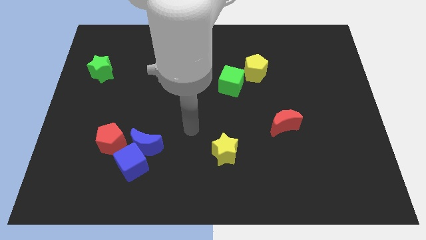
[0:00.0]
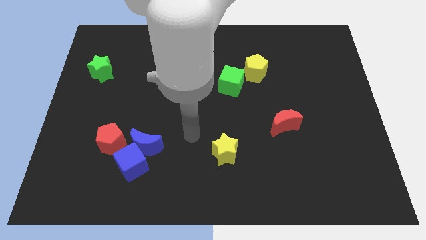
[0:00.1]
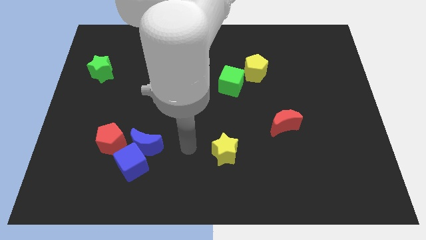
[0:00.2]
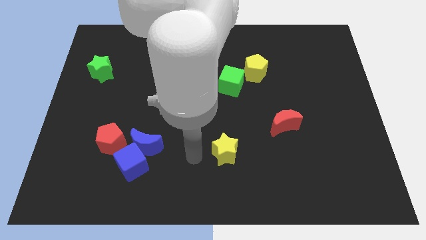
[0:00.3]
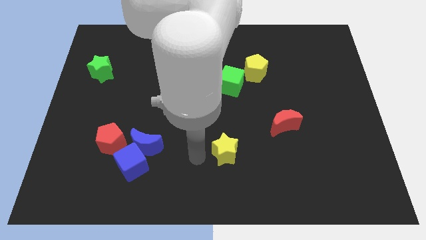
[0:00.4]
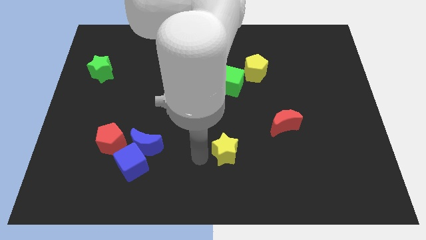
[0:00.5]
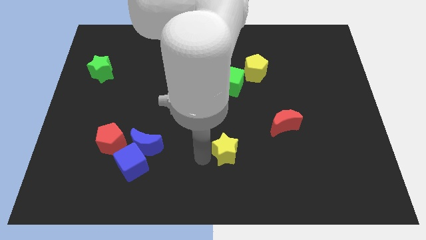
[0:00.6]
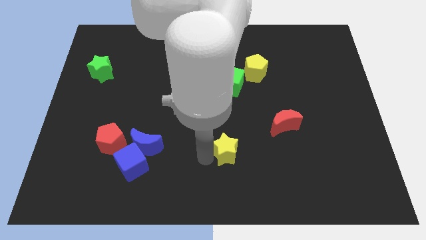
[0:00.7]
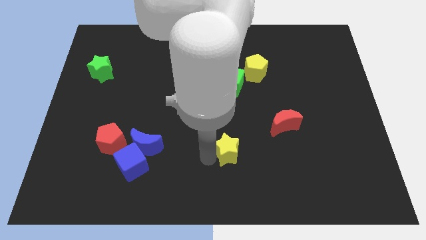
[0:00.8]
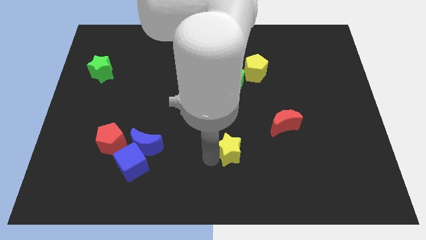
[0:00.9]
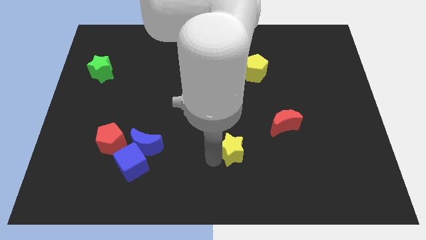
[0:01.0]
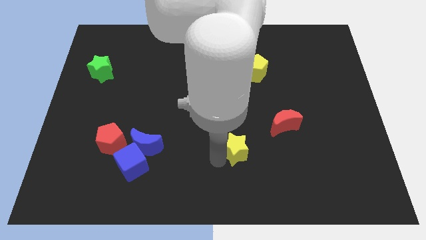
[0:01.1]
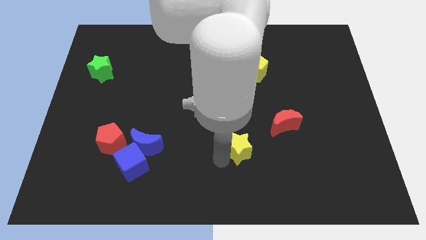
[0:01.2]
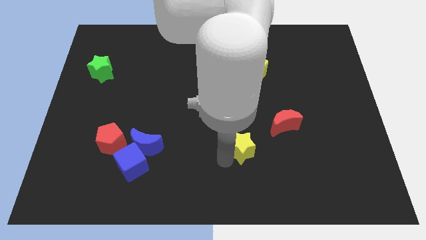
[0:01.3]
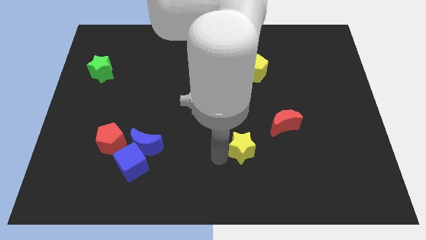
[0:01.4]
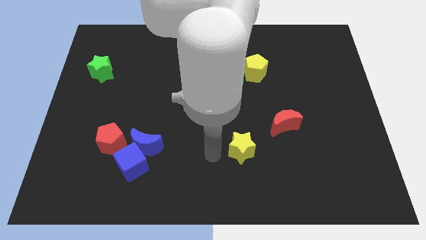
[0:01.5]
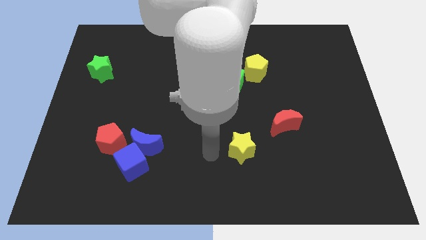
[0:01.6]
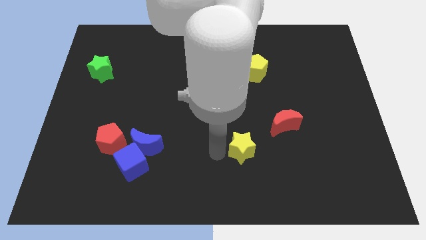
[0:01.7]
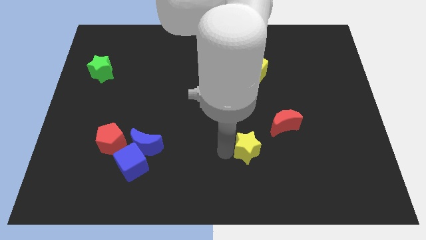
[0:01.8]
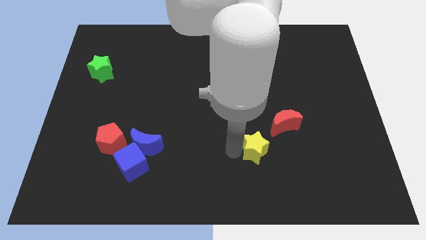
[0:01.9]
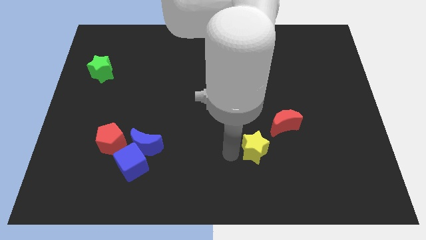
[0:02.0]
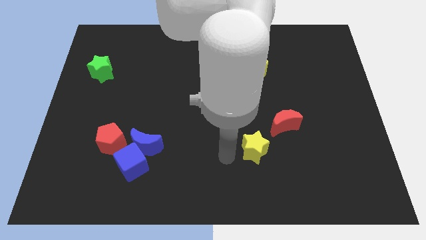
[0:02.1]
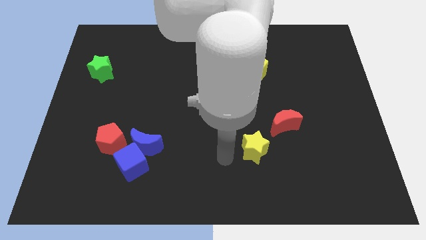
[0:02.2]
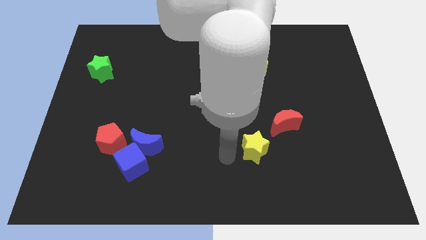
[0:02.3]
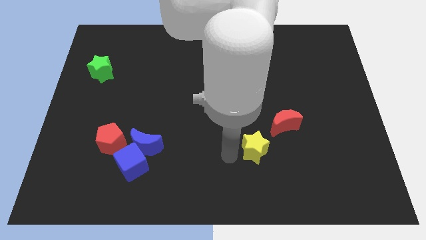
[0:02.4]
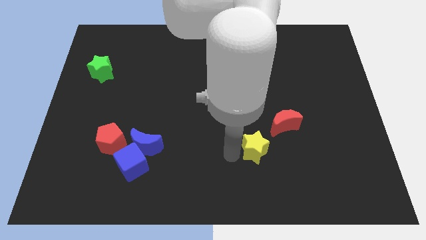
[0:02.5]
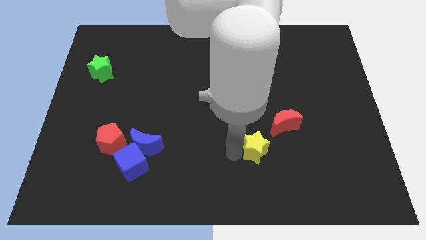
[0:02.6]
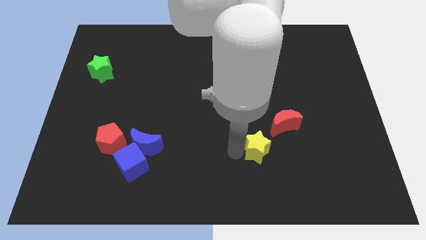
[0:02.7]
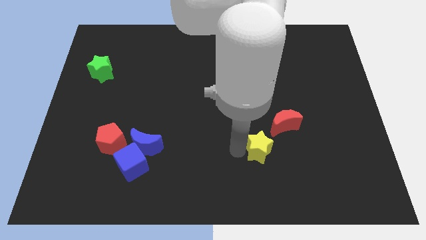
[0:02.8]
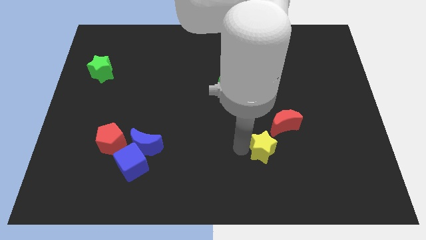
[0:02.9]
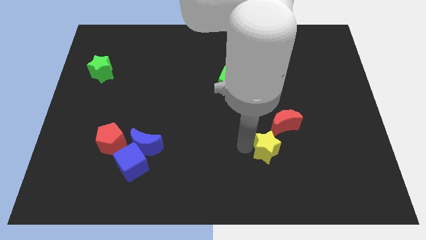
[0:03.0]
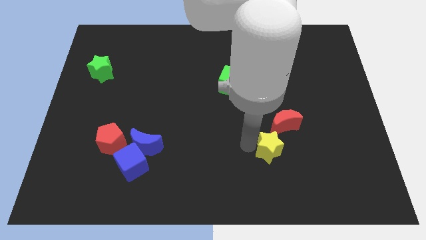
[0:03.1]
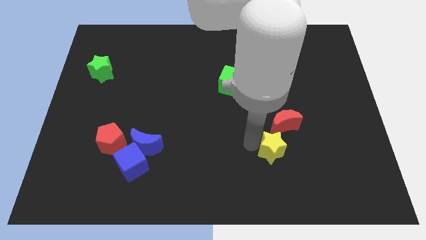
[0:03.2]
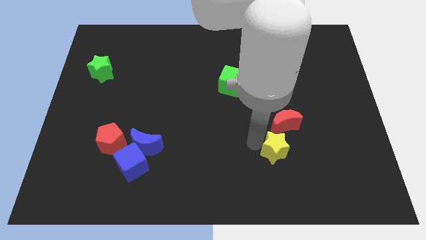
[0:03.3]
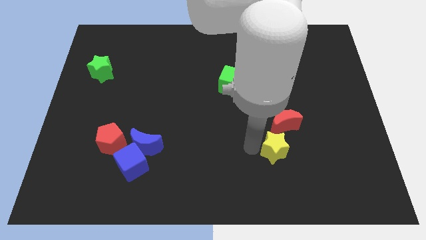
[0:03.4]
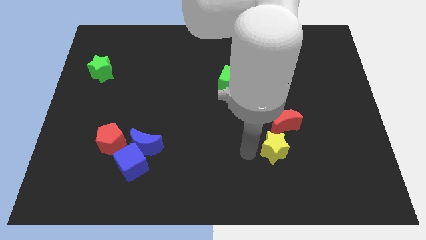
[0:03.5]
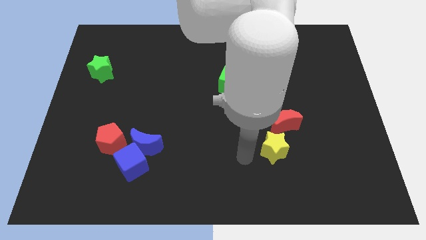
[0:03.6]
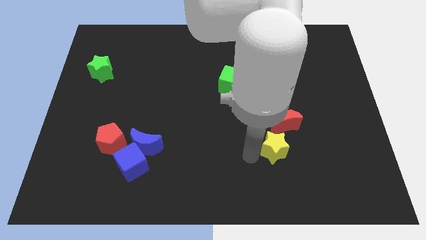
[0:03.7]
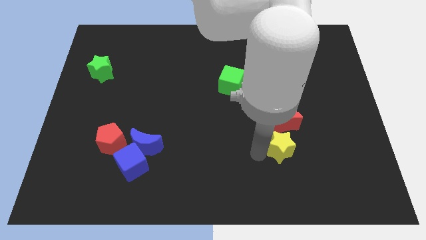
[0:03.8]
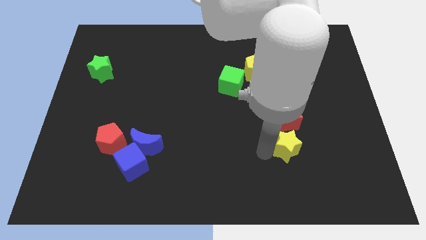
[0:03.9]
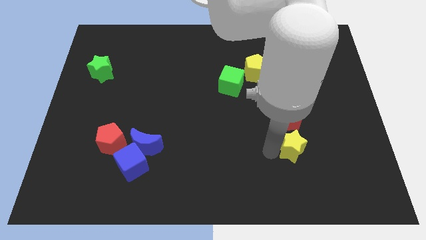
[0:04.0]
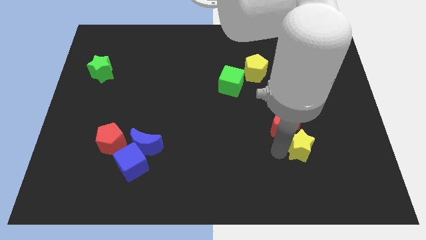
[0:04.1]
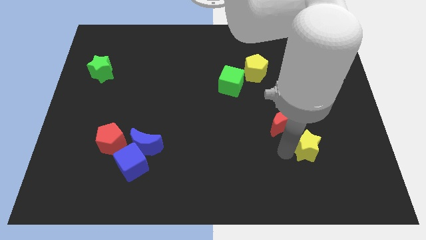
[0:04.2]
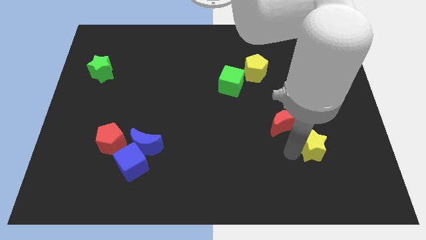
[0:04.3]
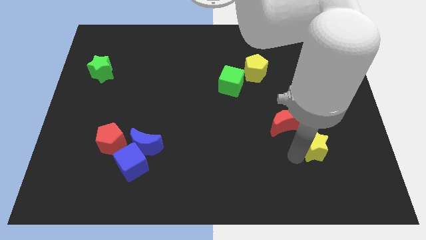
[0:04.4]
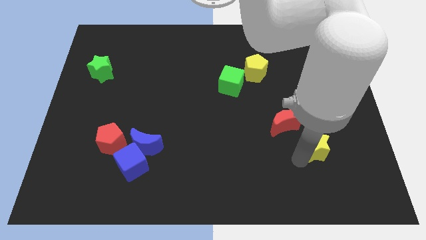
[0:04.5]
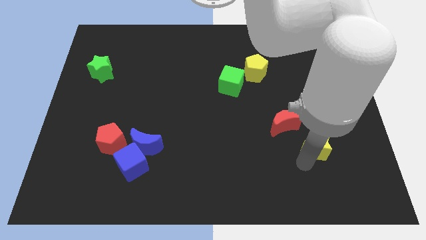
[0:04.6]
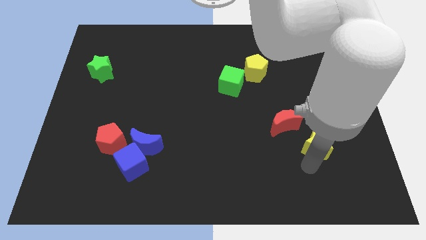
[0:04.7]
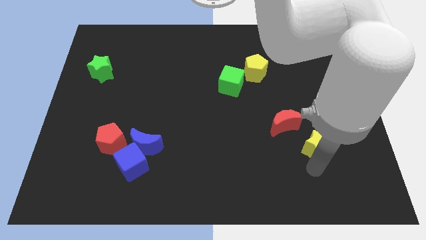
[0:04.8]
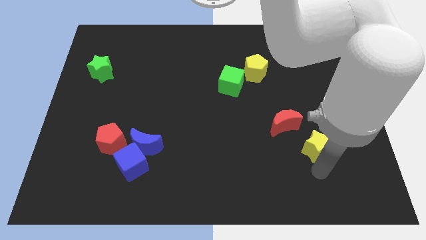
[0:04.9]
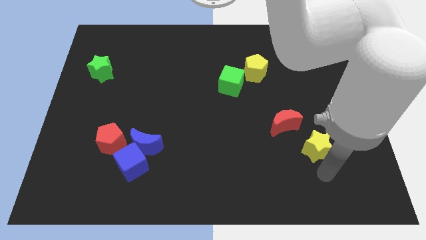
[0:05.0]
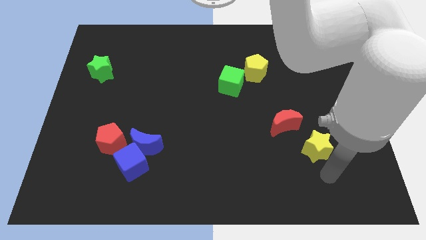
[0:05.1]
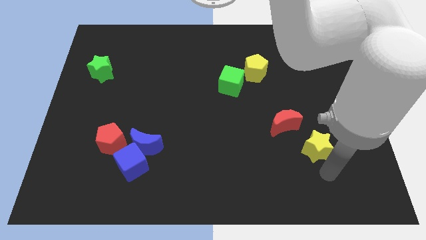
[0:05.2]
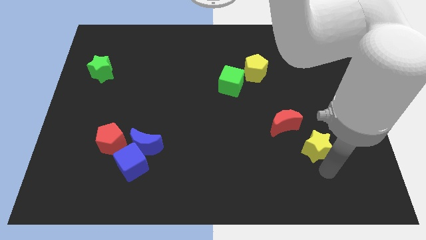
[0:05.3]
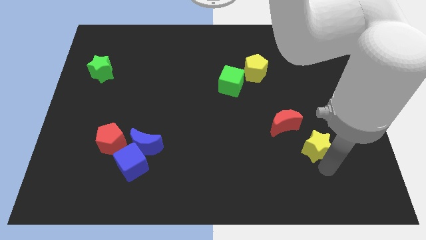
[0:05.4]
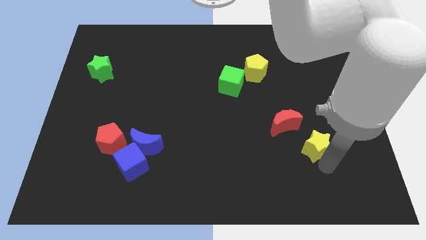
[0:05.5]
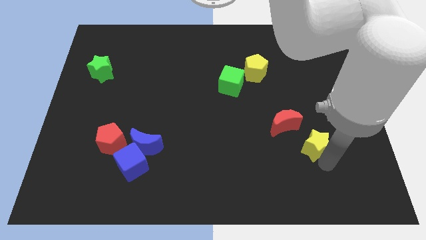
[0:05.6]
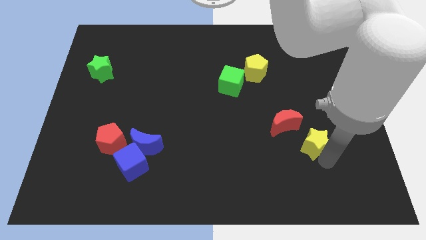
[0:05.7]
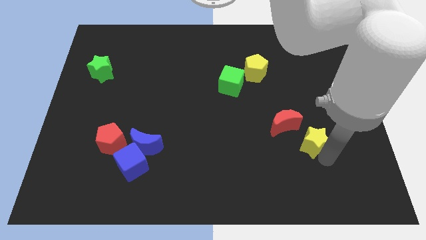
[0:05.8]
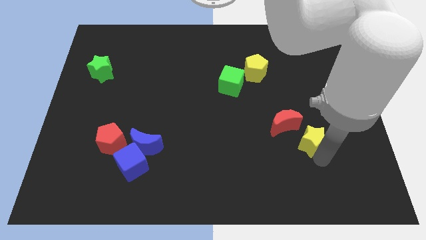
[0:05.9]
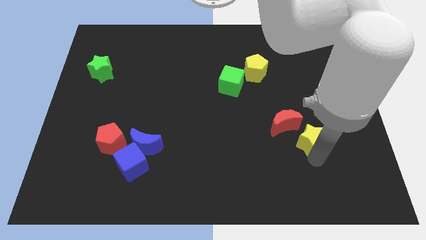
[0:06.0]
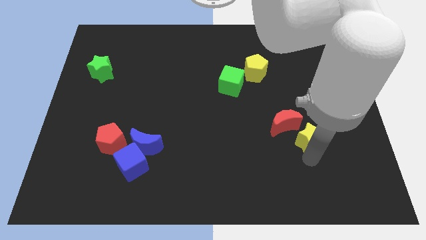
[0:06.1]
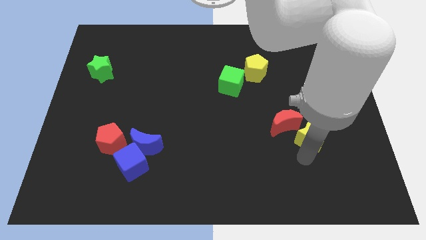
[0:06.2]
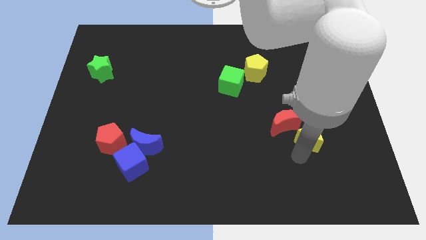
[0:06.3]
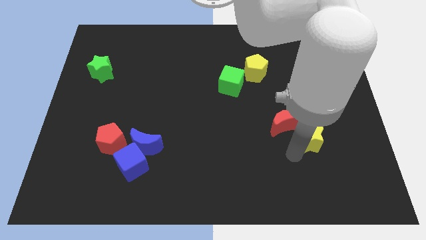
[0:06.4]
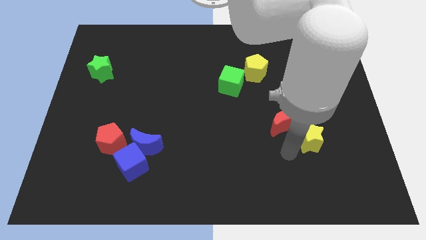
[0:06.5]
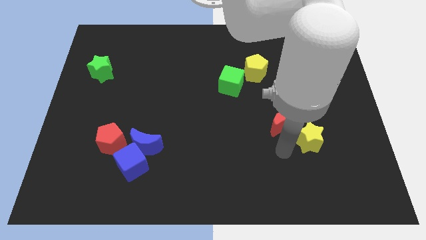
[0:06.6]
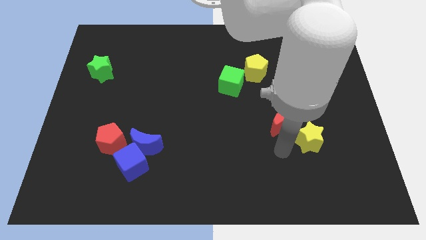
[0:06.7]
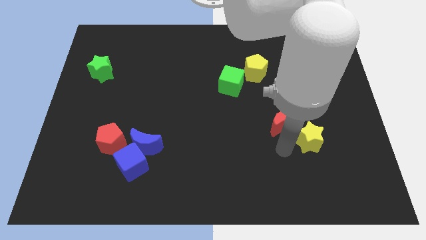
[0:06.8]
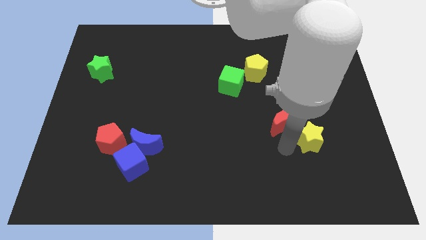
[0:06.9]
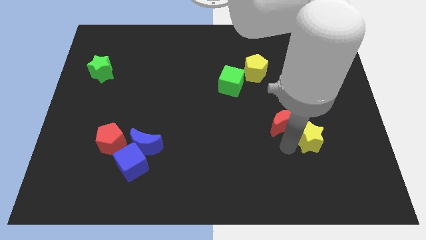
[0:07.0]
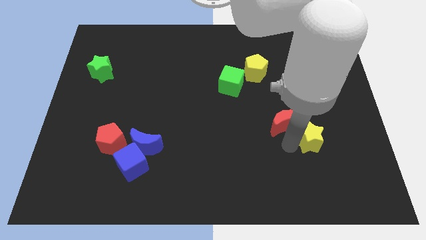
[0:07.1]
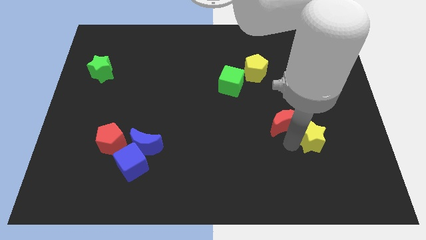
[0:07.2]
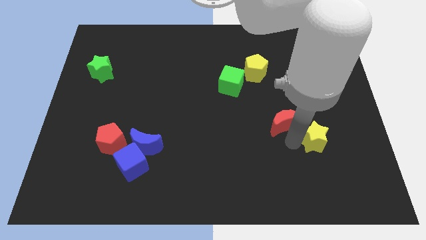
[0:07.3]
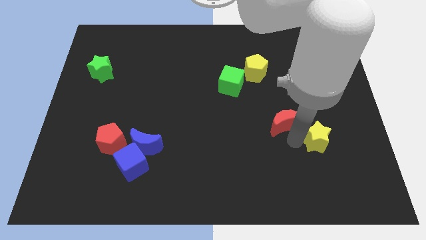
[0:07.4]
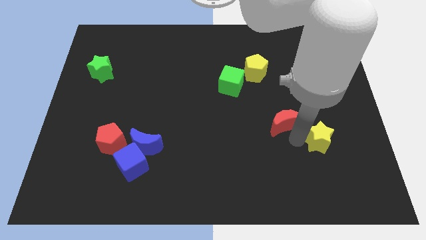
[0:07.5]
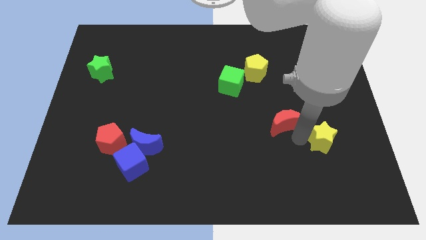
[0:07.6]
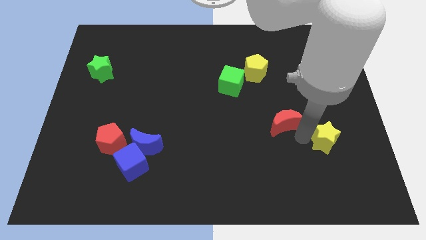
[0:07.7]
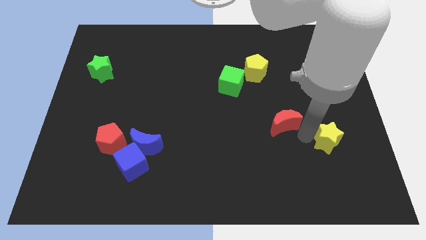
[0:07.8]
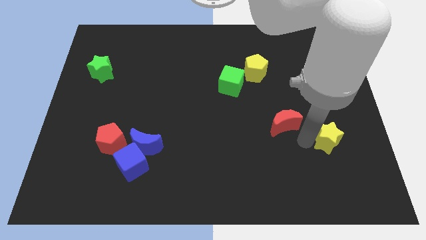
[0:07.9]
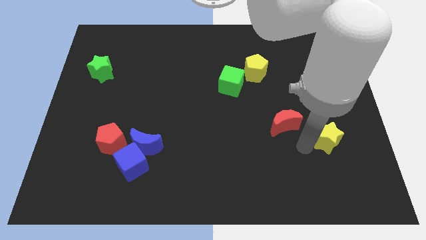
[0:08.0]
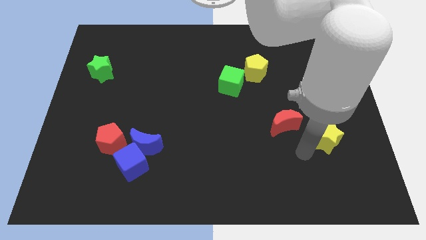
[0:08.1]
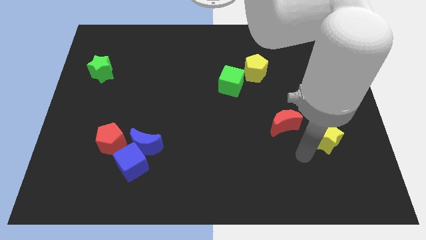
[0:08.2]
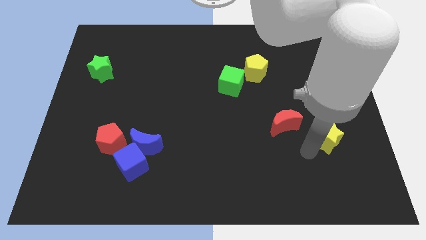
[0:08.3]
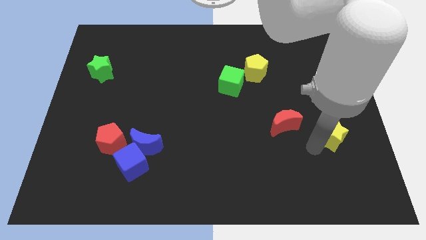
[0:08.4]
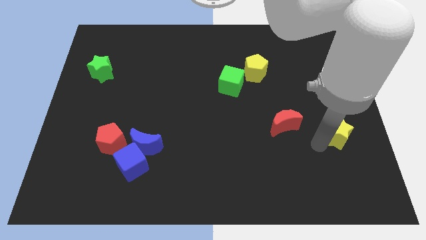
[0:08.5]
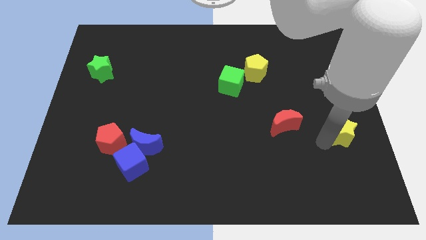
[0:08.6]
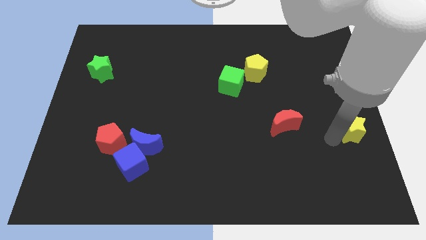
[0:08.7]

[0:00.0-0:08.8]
slide the yellow star to the right side of the board
